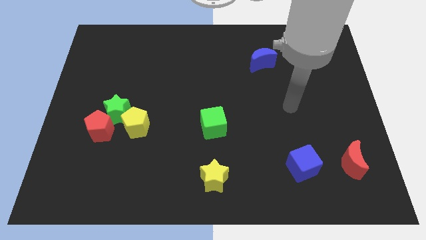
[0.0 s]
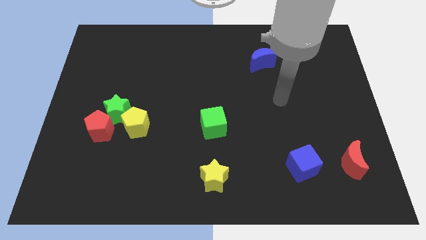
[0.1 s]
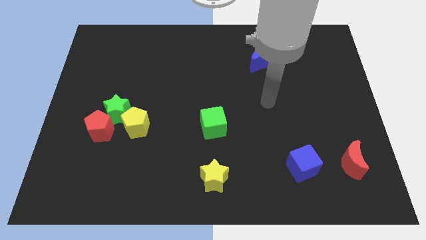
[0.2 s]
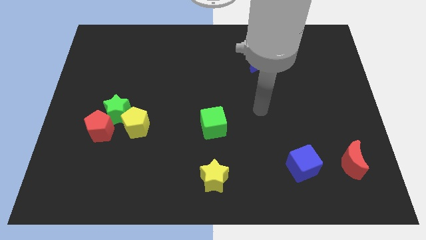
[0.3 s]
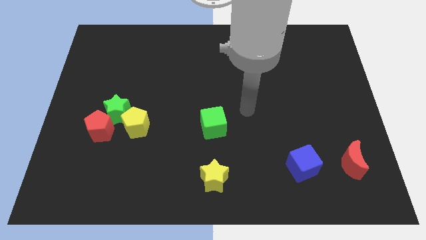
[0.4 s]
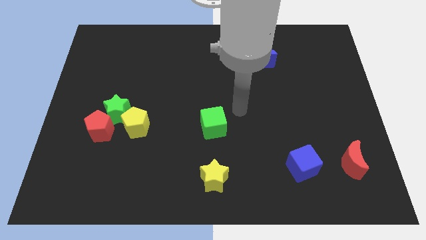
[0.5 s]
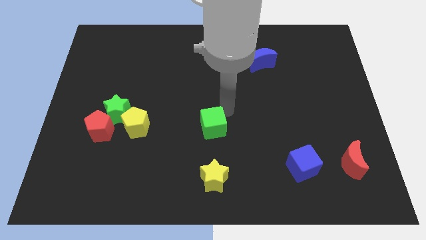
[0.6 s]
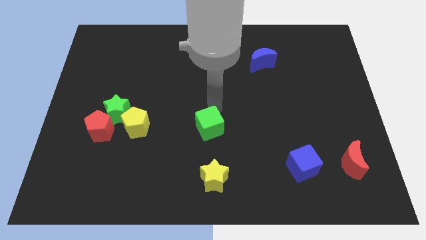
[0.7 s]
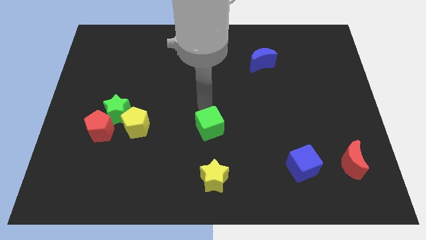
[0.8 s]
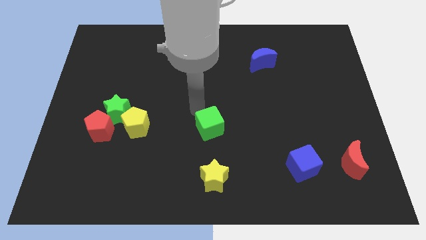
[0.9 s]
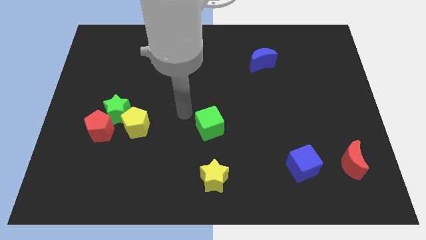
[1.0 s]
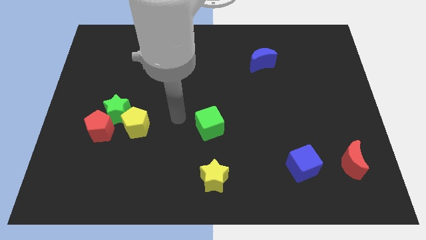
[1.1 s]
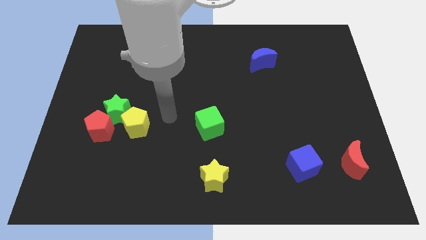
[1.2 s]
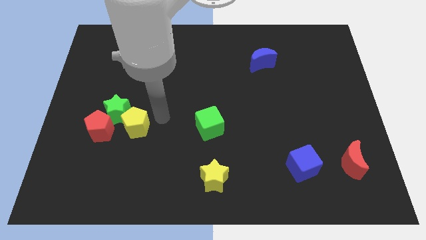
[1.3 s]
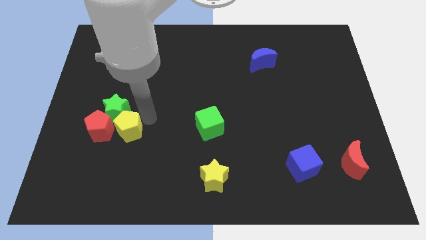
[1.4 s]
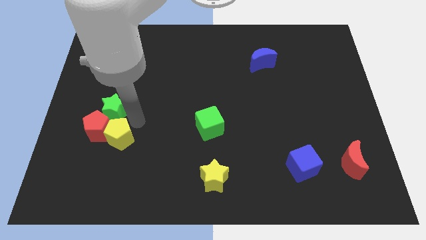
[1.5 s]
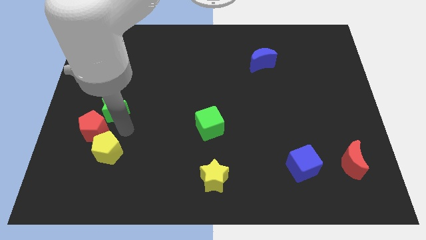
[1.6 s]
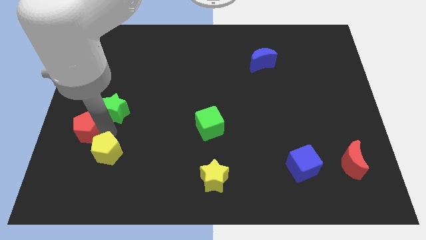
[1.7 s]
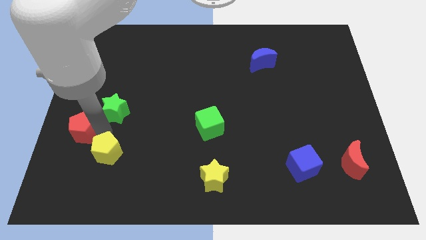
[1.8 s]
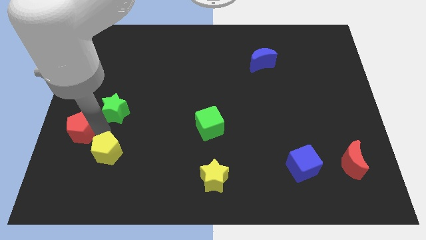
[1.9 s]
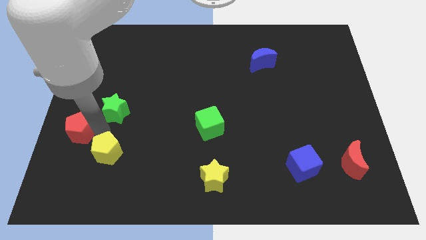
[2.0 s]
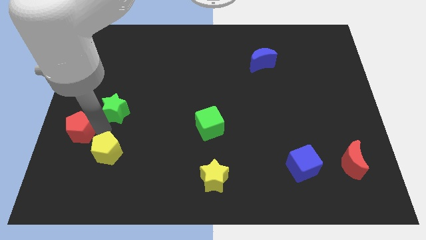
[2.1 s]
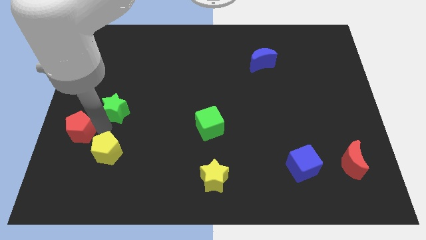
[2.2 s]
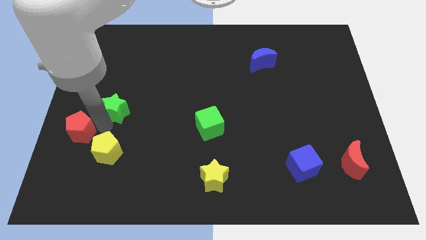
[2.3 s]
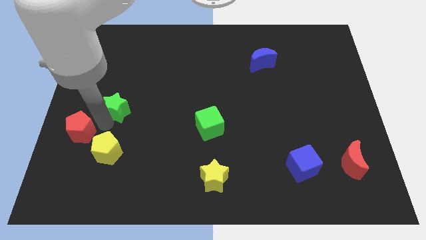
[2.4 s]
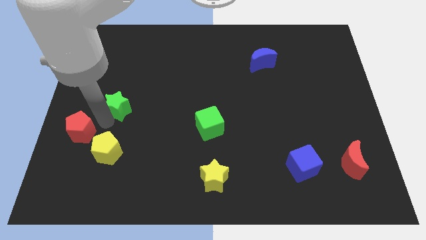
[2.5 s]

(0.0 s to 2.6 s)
pull the green star apart from the red pentagon and yellow pentagon

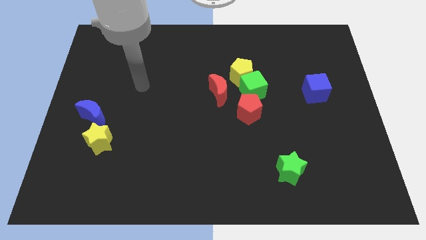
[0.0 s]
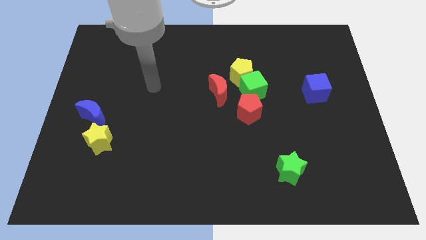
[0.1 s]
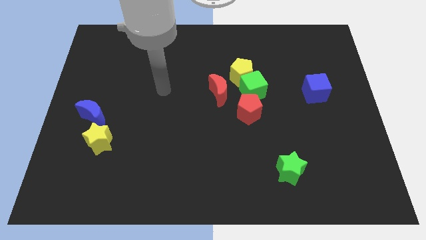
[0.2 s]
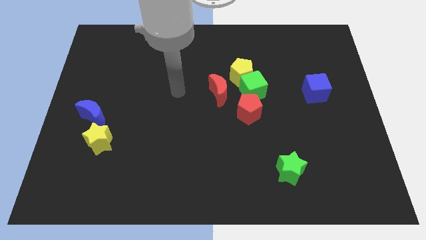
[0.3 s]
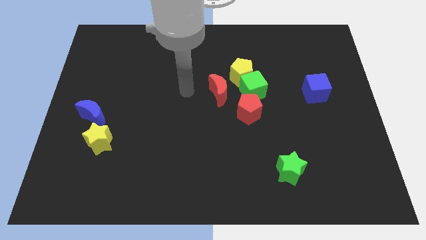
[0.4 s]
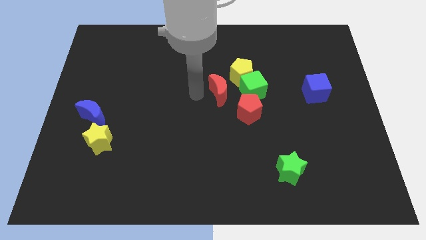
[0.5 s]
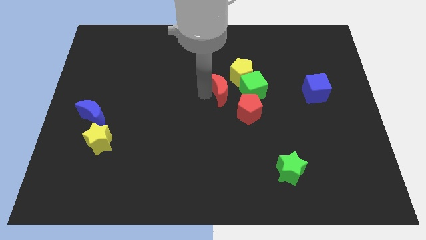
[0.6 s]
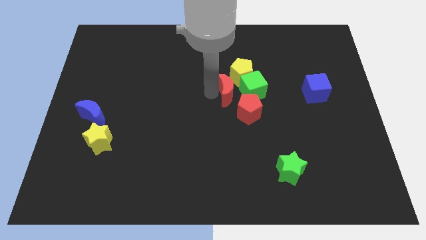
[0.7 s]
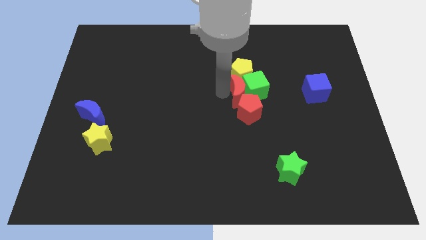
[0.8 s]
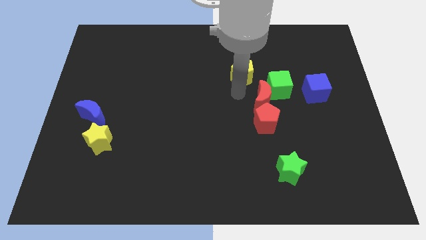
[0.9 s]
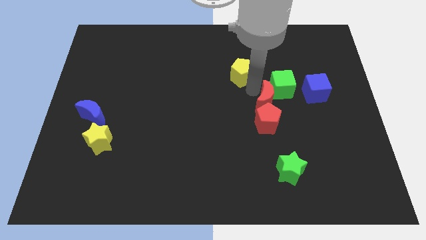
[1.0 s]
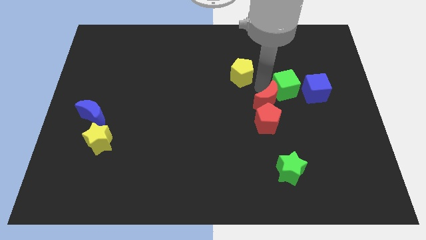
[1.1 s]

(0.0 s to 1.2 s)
separate the yellow pentagon from the green cube and red moon

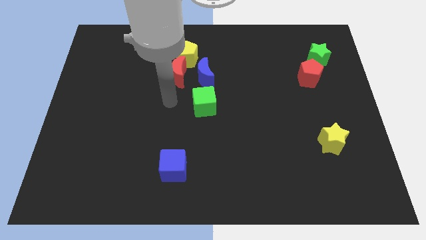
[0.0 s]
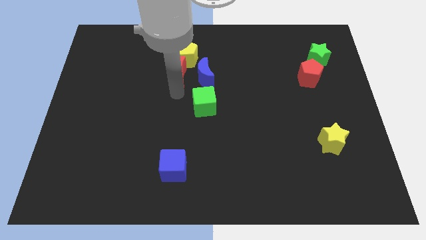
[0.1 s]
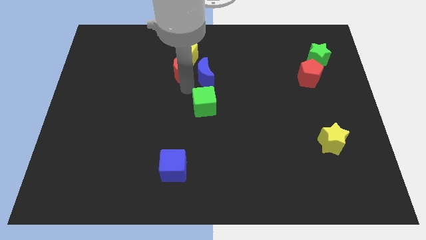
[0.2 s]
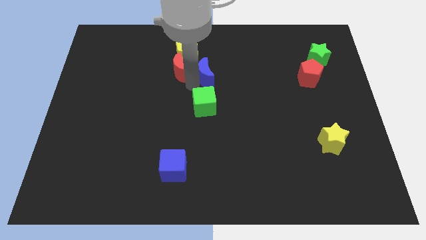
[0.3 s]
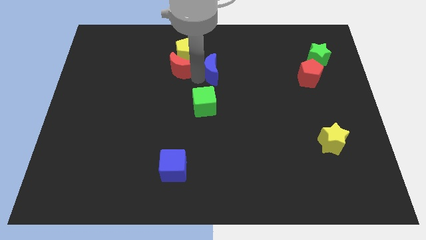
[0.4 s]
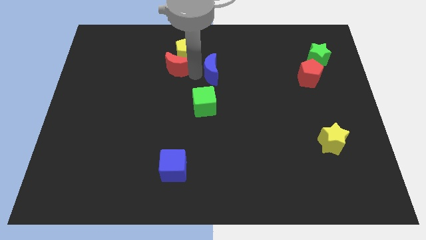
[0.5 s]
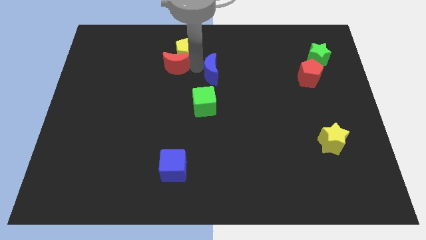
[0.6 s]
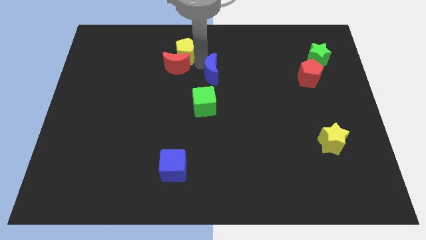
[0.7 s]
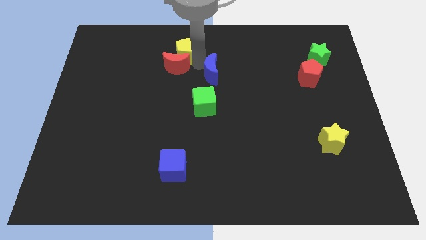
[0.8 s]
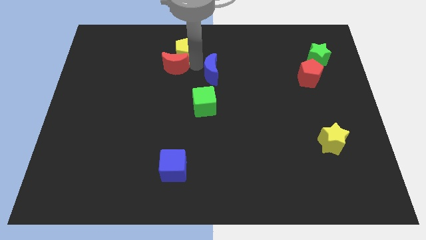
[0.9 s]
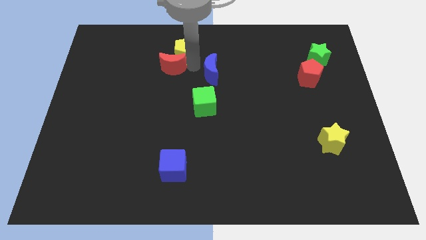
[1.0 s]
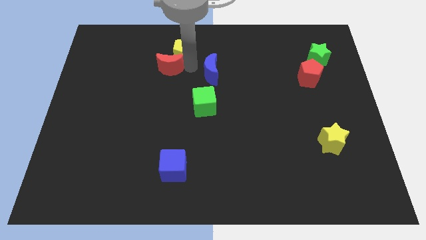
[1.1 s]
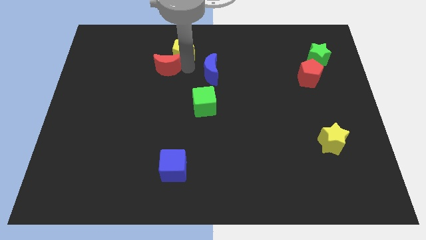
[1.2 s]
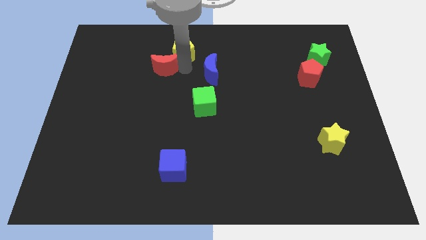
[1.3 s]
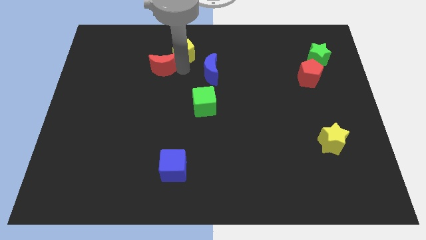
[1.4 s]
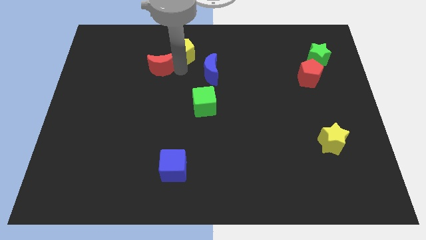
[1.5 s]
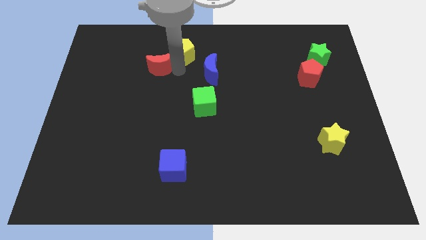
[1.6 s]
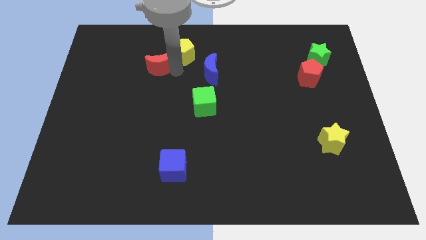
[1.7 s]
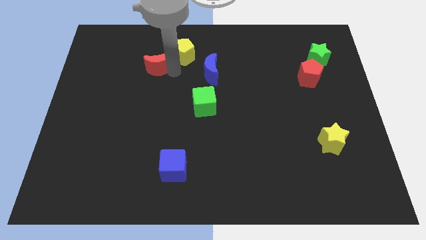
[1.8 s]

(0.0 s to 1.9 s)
pull the red moon apart from the yellow pentagon and blue moon

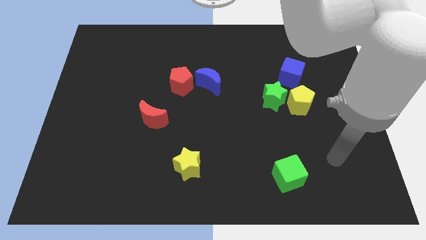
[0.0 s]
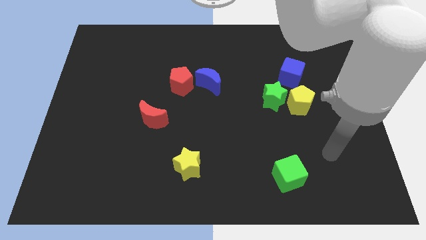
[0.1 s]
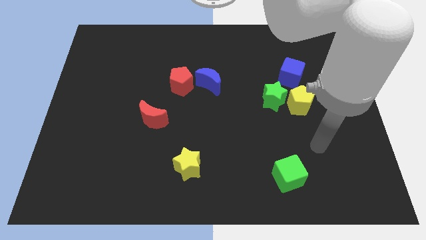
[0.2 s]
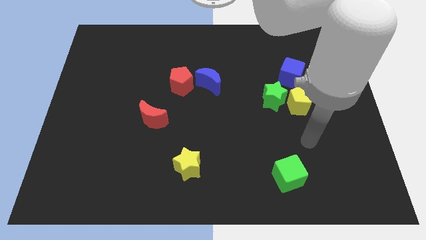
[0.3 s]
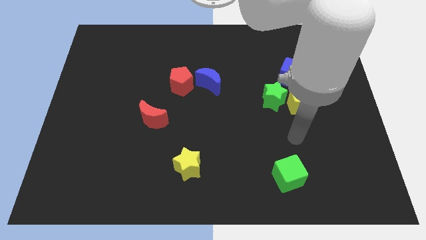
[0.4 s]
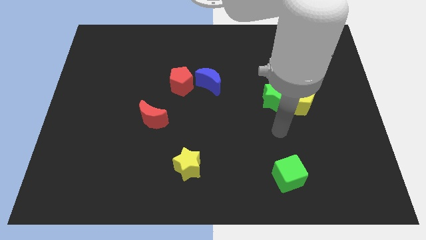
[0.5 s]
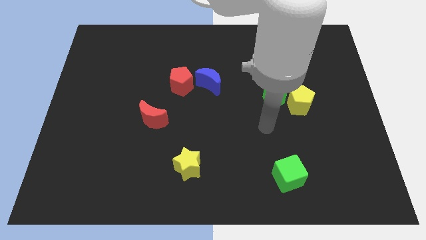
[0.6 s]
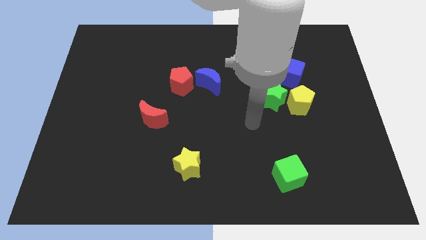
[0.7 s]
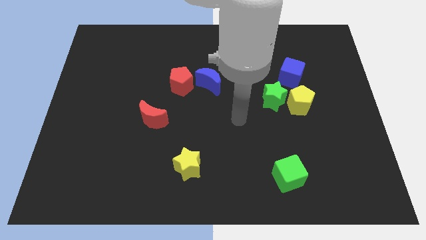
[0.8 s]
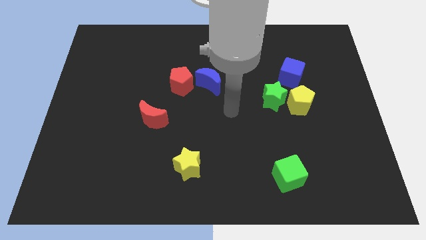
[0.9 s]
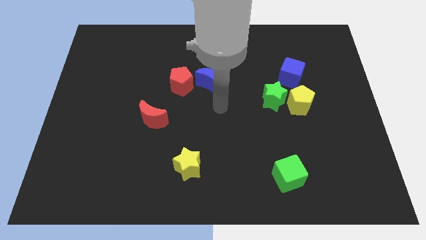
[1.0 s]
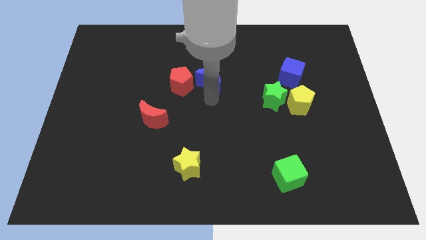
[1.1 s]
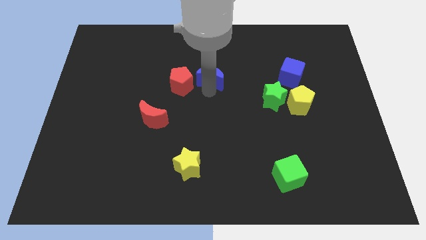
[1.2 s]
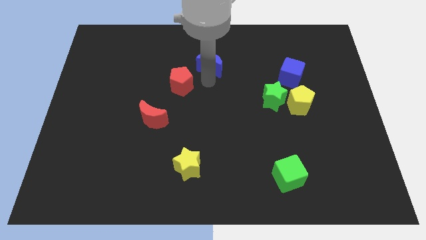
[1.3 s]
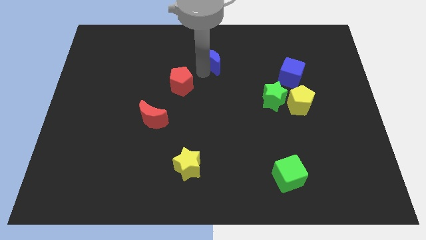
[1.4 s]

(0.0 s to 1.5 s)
move the red pentagon away from the blue moon

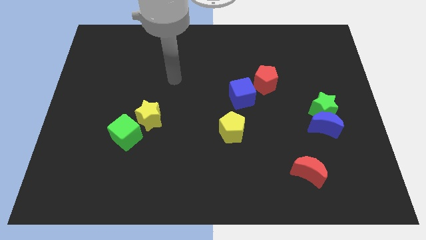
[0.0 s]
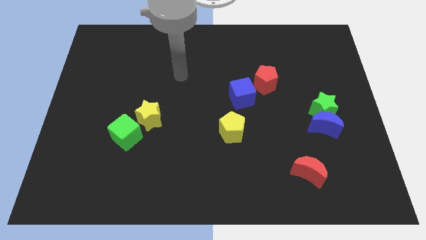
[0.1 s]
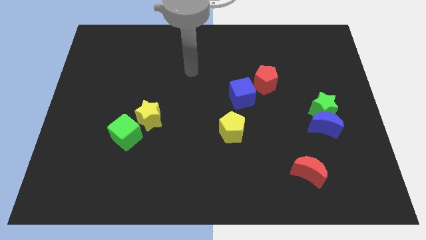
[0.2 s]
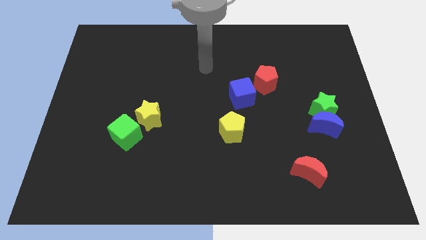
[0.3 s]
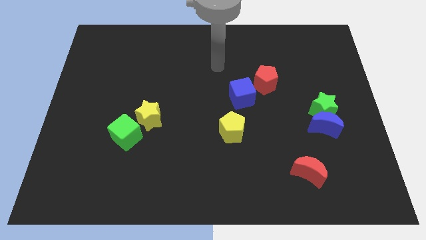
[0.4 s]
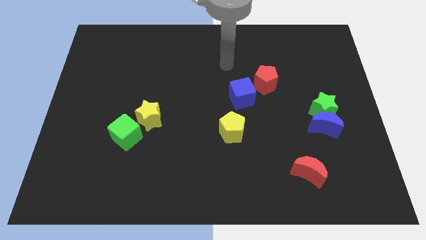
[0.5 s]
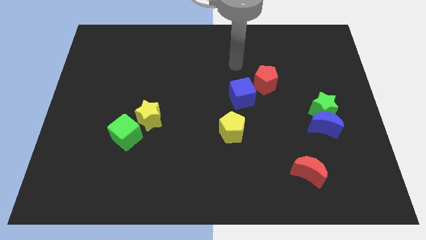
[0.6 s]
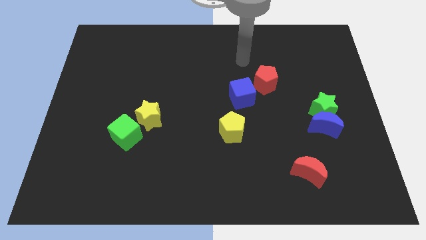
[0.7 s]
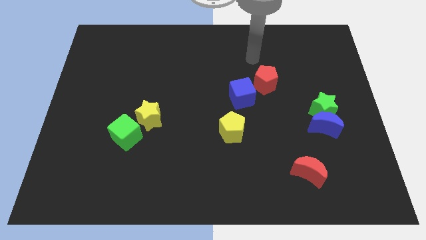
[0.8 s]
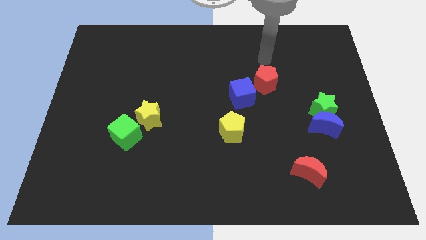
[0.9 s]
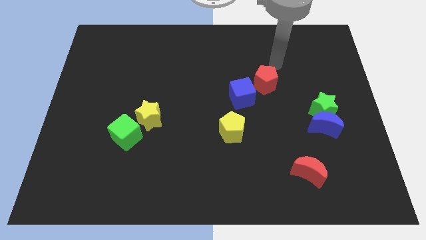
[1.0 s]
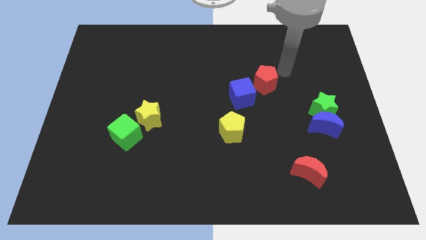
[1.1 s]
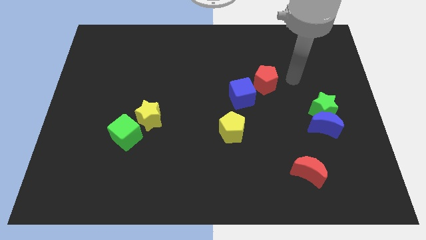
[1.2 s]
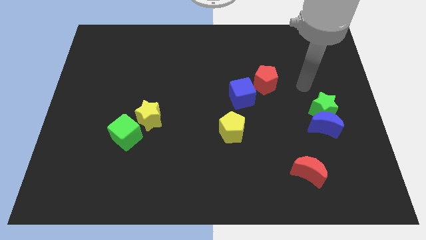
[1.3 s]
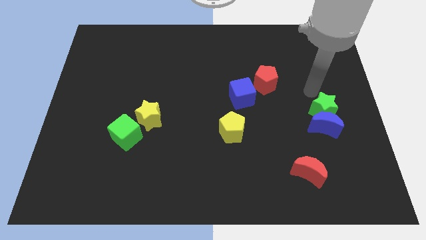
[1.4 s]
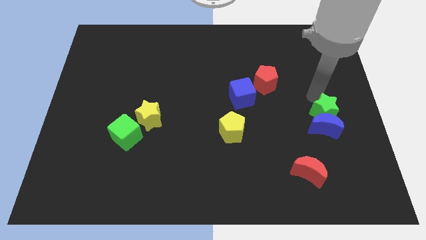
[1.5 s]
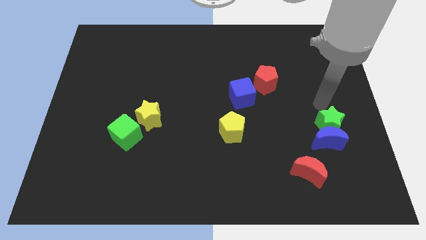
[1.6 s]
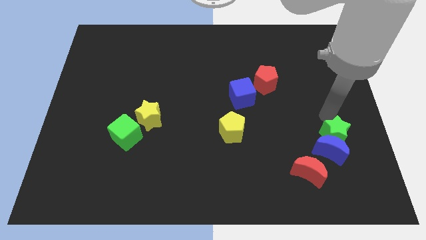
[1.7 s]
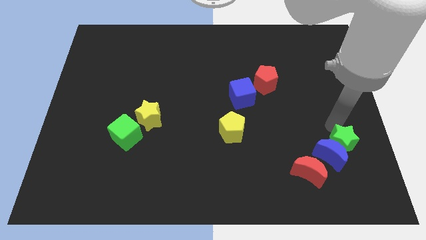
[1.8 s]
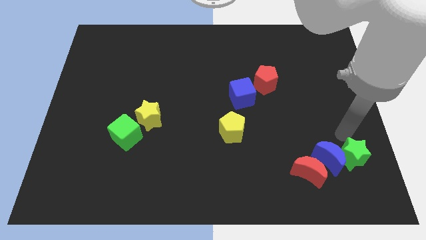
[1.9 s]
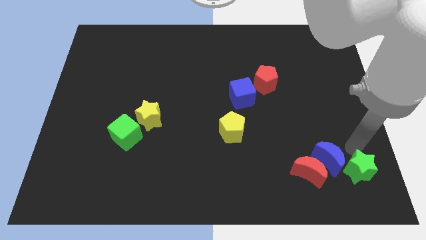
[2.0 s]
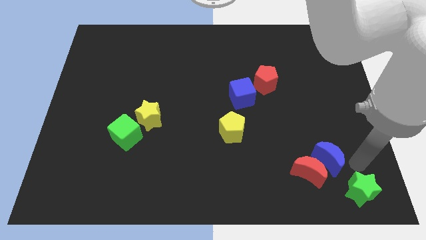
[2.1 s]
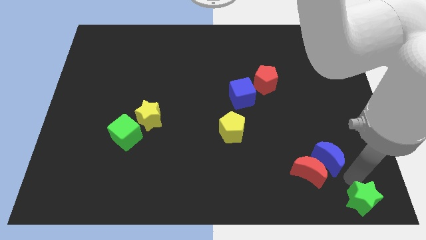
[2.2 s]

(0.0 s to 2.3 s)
pull the blue moon apart from the green star
